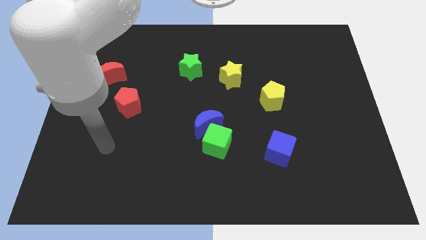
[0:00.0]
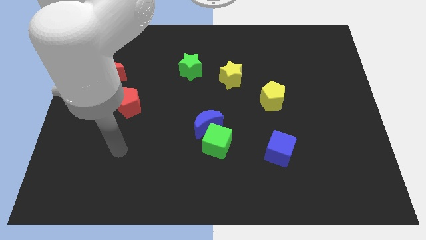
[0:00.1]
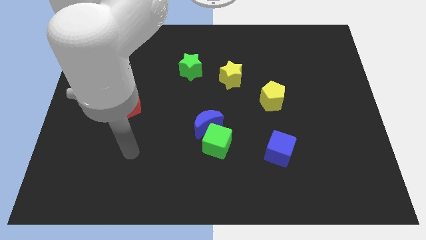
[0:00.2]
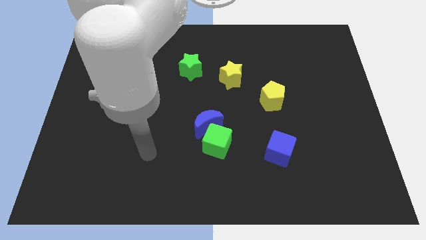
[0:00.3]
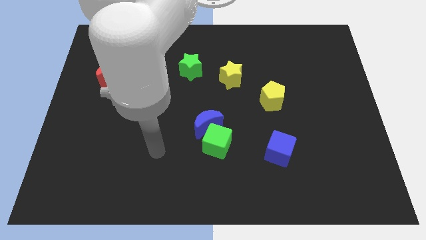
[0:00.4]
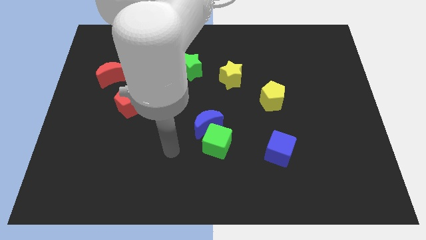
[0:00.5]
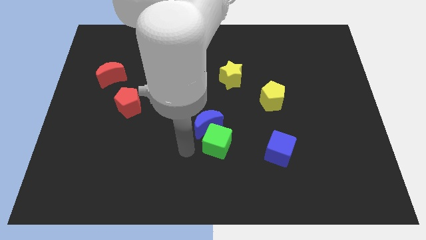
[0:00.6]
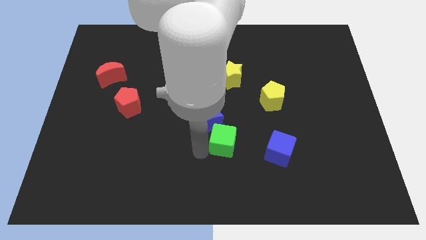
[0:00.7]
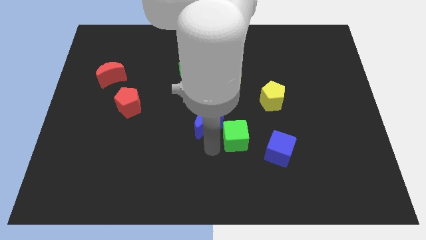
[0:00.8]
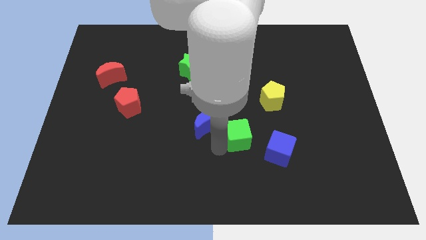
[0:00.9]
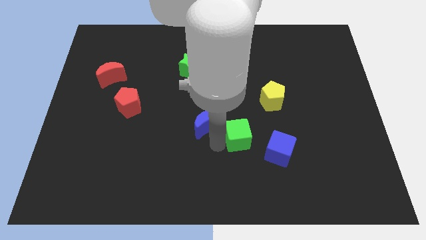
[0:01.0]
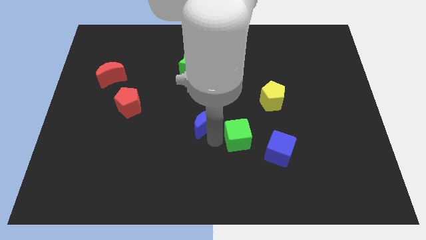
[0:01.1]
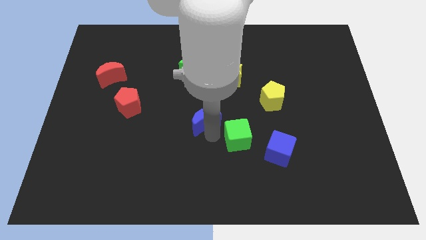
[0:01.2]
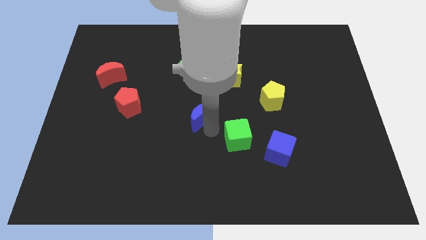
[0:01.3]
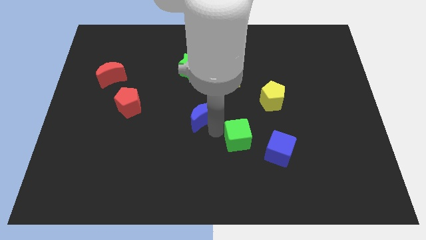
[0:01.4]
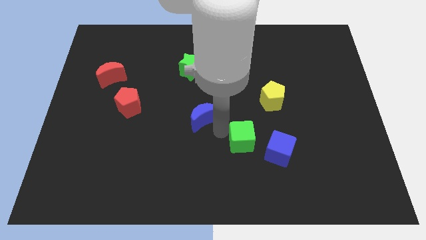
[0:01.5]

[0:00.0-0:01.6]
pull the blue moon apart from the green cube

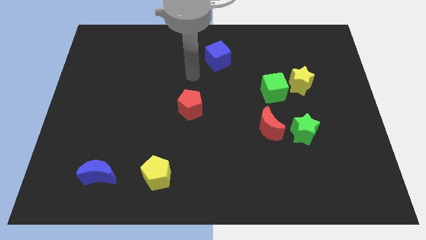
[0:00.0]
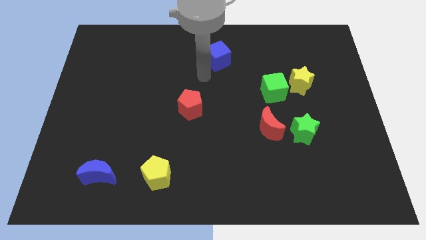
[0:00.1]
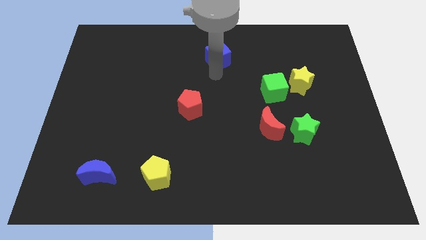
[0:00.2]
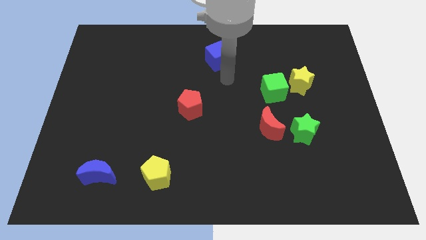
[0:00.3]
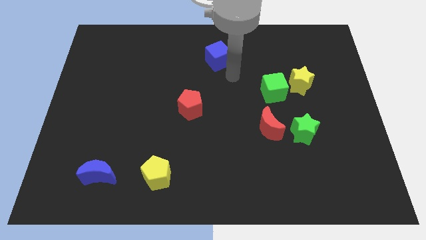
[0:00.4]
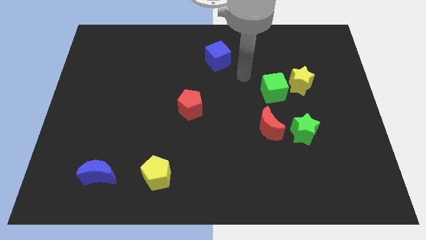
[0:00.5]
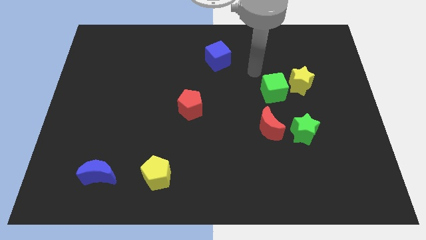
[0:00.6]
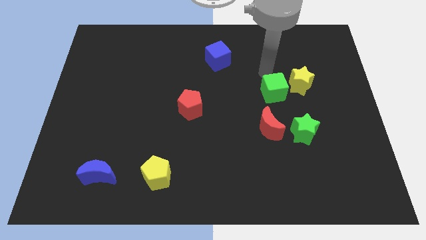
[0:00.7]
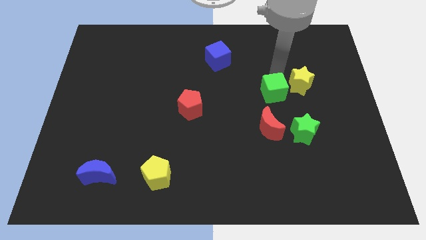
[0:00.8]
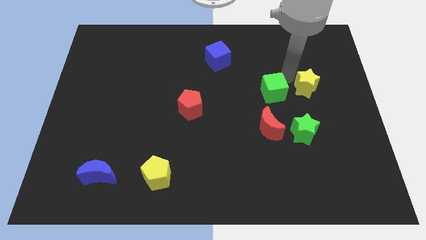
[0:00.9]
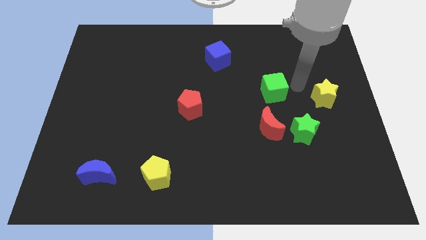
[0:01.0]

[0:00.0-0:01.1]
pull the green cube apart from the yellow star

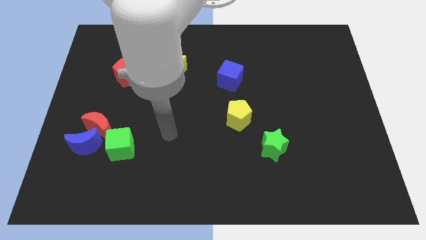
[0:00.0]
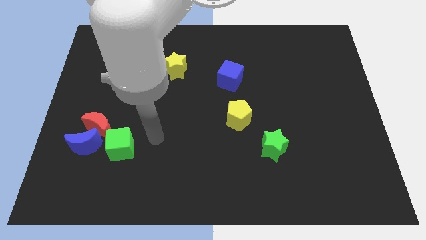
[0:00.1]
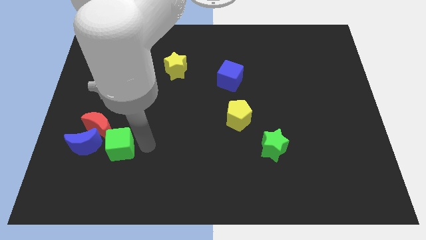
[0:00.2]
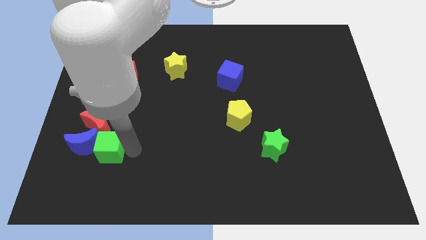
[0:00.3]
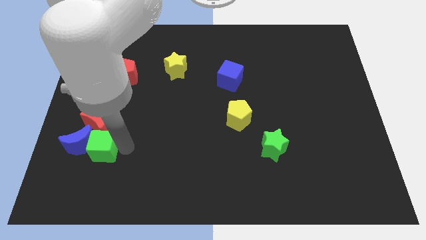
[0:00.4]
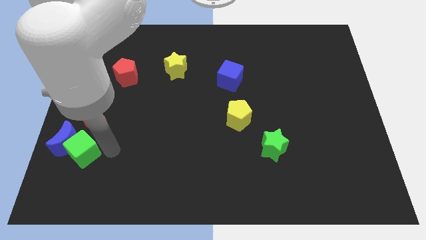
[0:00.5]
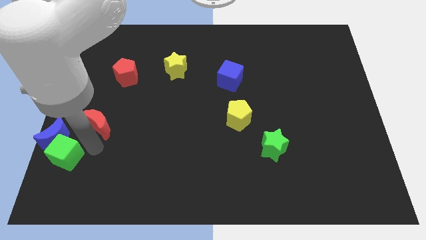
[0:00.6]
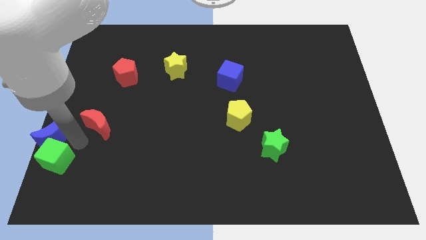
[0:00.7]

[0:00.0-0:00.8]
pull the red moon apart from the blue moon and green cube

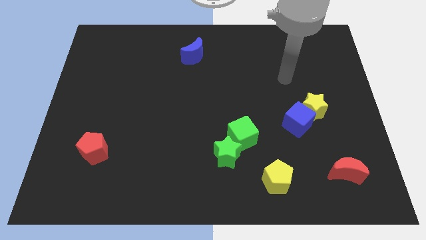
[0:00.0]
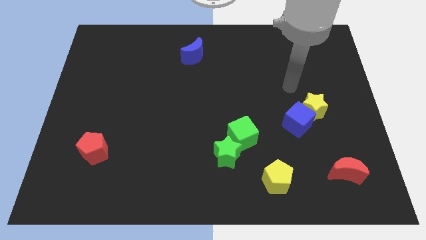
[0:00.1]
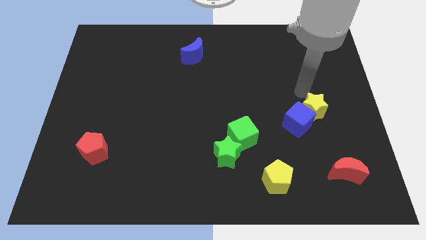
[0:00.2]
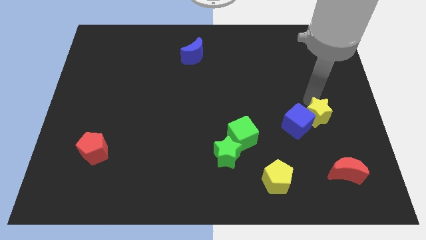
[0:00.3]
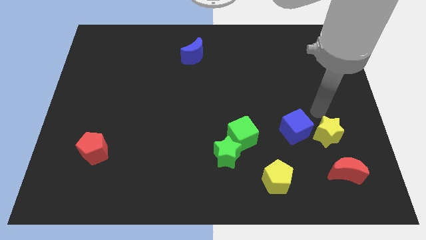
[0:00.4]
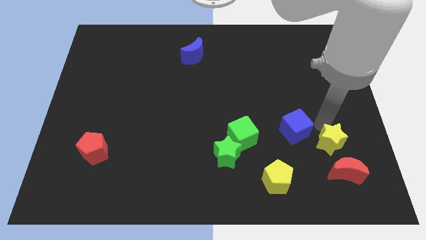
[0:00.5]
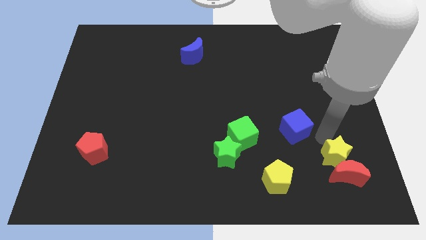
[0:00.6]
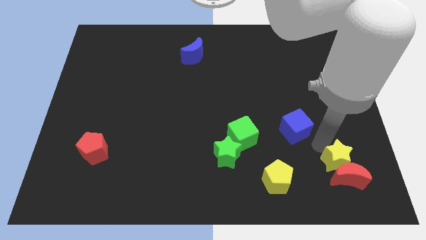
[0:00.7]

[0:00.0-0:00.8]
pull the blue cube apart from the yellow star

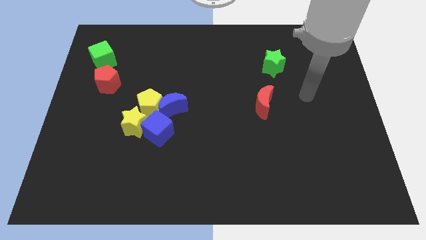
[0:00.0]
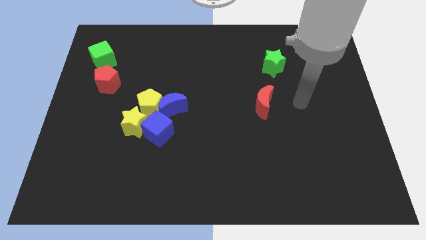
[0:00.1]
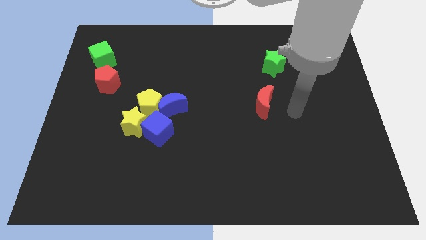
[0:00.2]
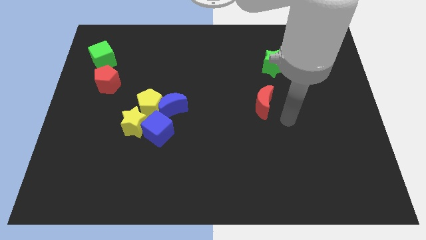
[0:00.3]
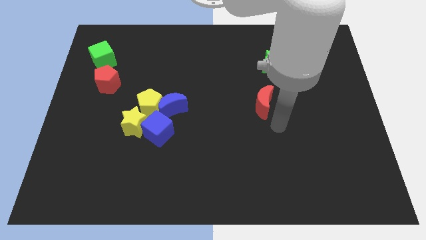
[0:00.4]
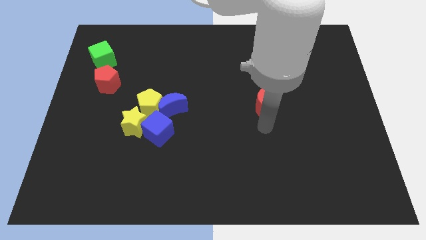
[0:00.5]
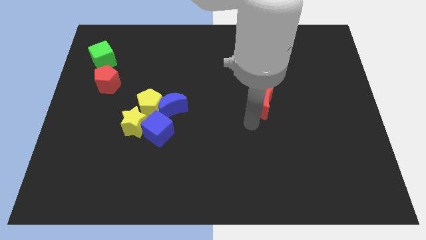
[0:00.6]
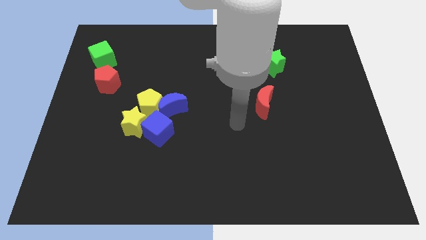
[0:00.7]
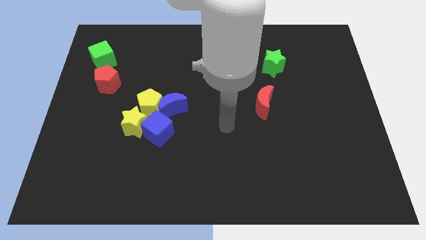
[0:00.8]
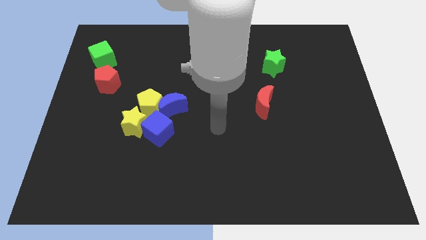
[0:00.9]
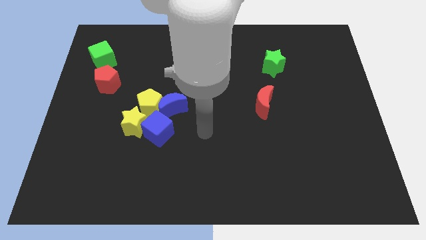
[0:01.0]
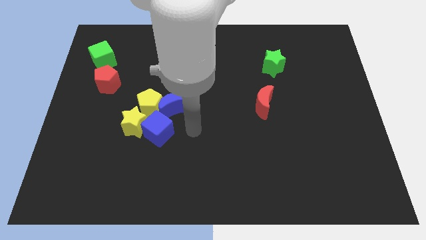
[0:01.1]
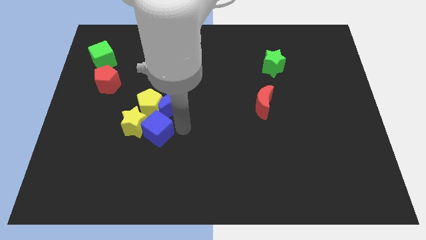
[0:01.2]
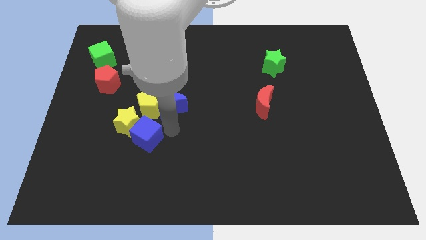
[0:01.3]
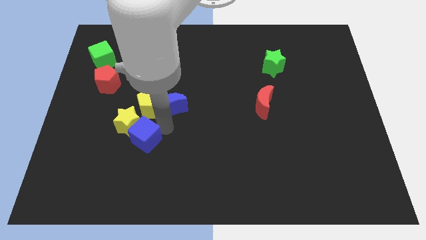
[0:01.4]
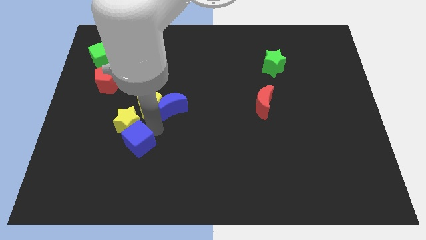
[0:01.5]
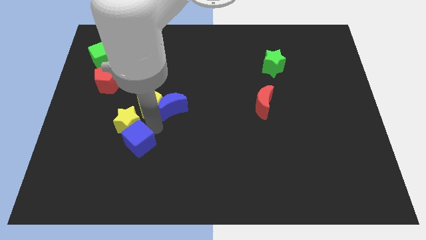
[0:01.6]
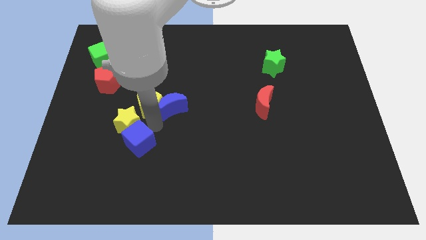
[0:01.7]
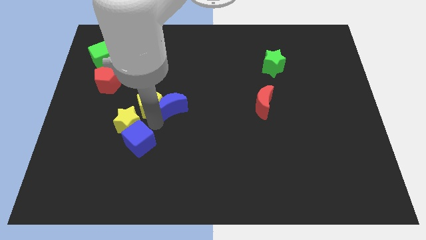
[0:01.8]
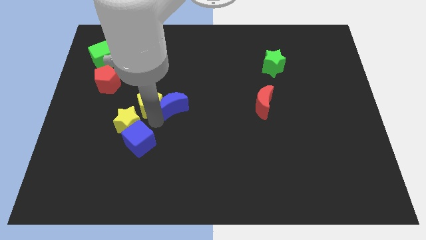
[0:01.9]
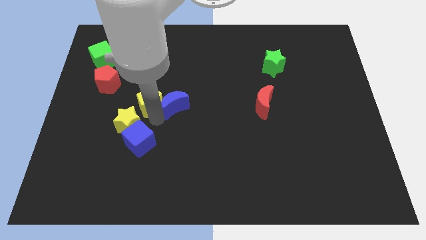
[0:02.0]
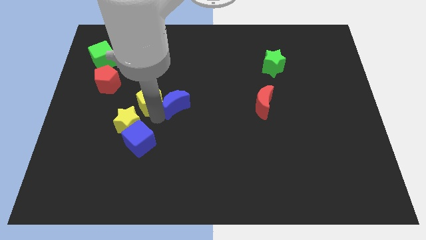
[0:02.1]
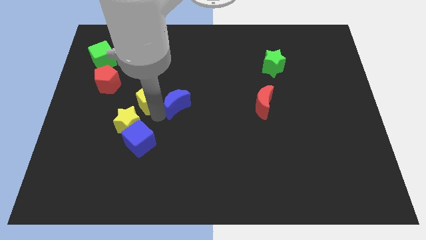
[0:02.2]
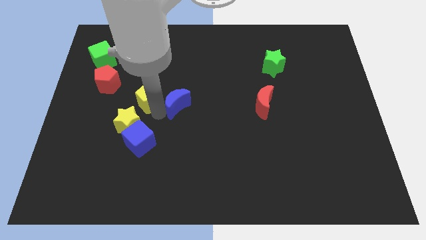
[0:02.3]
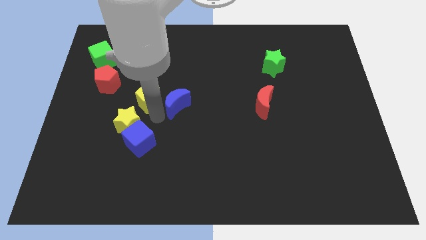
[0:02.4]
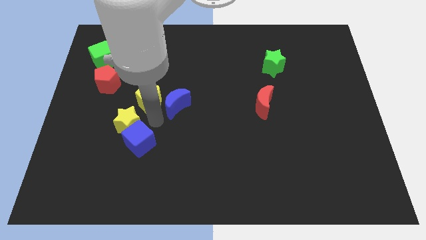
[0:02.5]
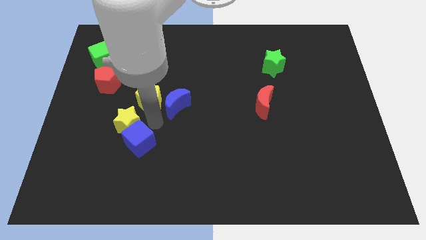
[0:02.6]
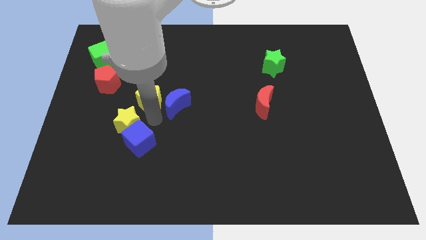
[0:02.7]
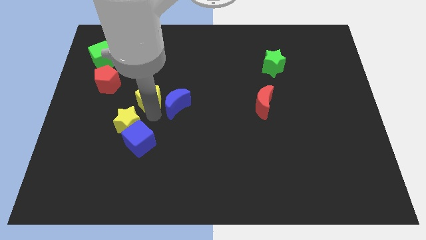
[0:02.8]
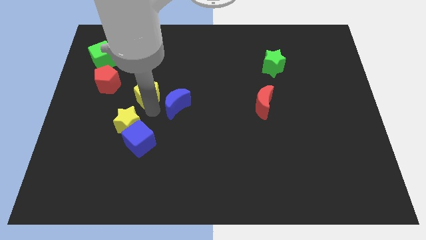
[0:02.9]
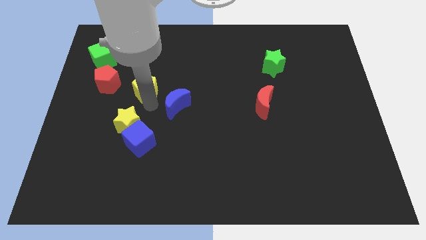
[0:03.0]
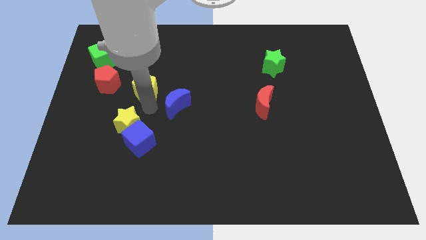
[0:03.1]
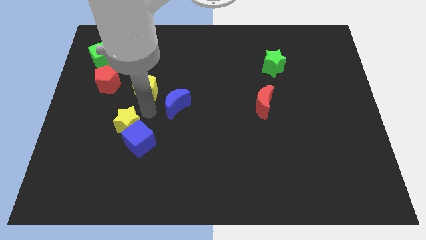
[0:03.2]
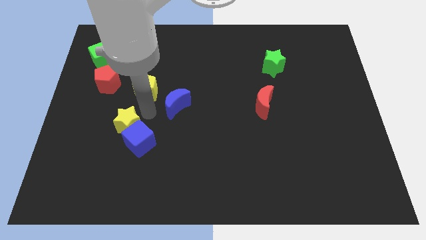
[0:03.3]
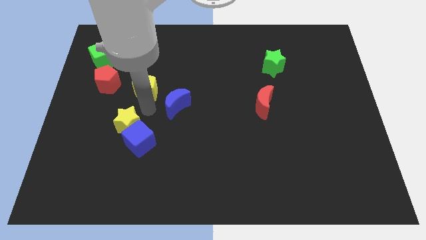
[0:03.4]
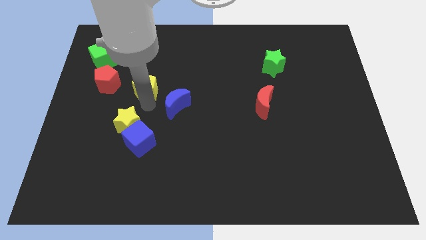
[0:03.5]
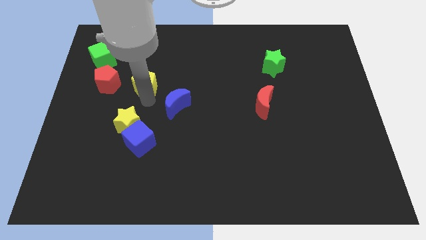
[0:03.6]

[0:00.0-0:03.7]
separate the yellow pentagon from the blue moon, yellow star, and blue cube

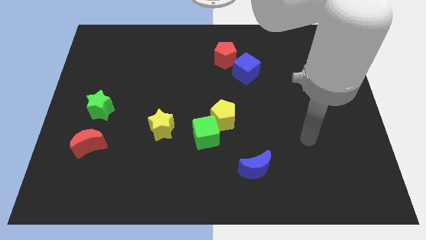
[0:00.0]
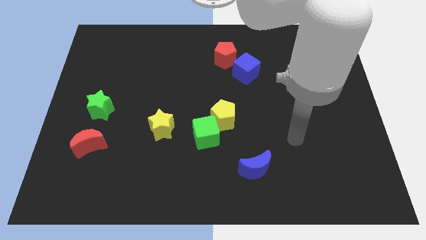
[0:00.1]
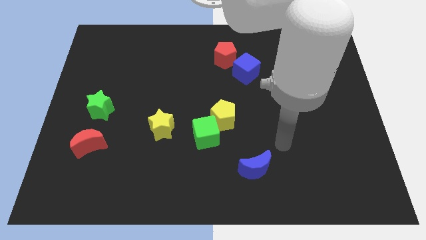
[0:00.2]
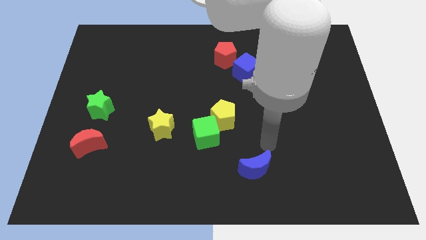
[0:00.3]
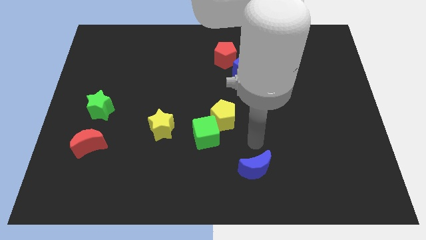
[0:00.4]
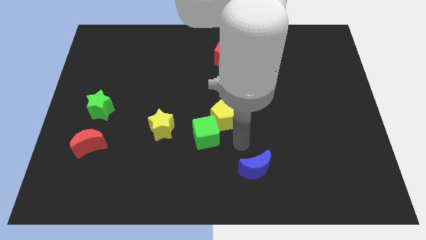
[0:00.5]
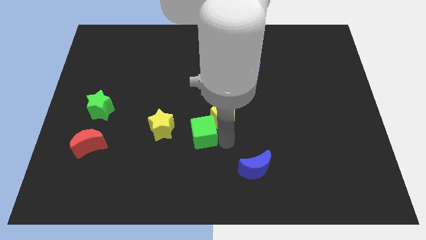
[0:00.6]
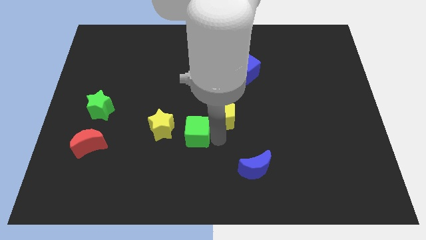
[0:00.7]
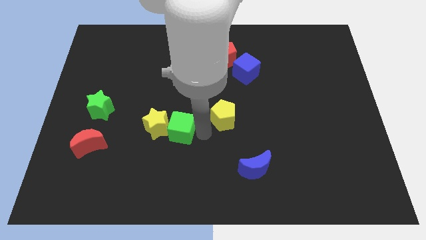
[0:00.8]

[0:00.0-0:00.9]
pull the yellow pentagon apart from the green cube

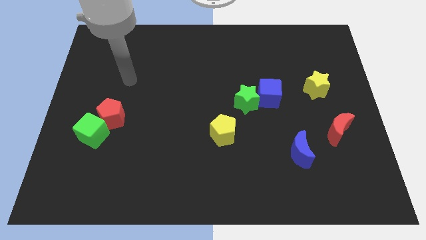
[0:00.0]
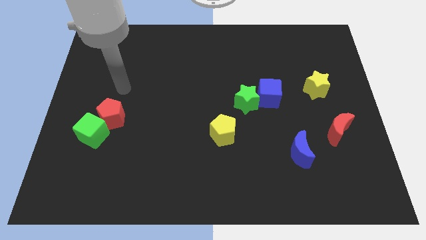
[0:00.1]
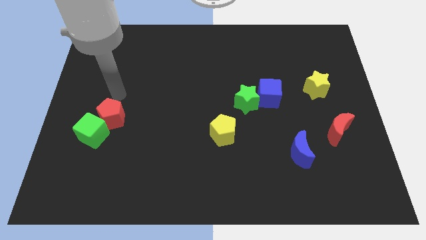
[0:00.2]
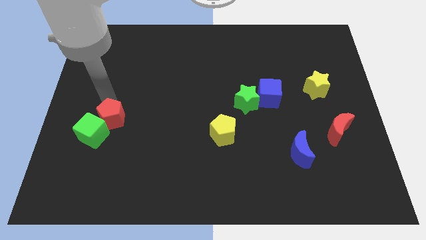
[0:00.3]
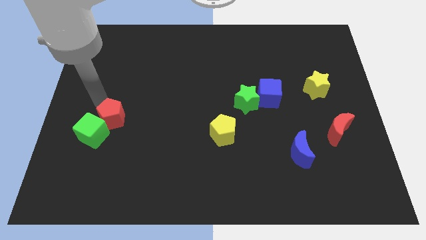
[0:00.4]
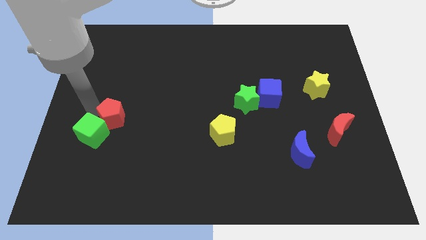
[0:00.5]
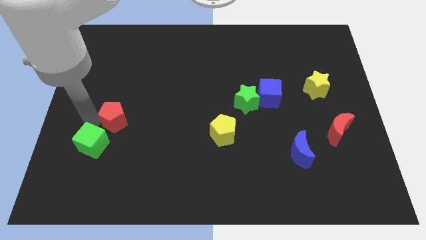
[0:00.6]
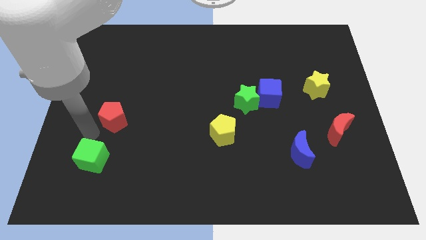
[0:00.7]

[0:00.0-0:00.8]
pull the red pentagon apart from the green cube
